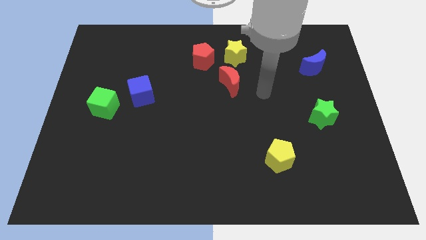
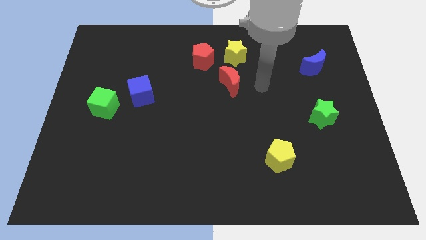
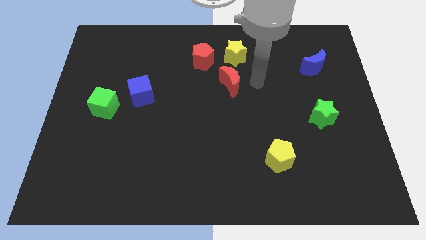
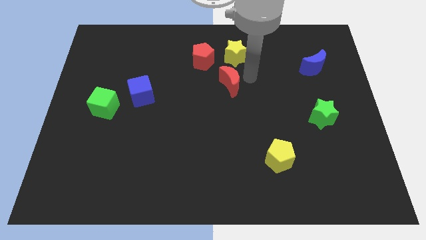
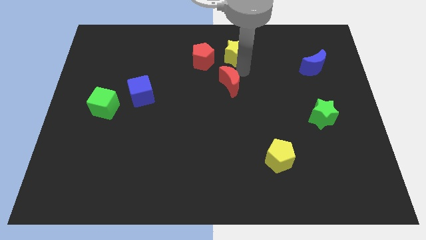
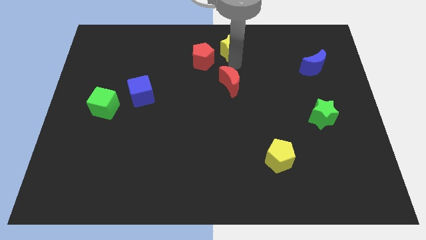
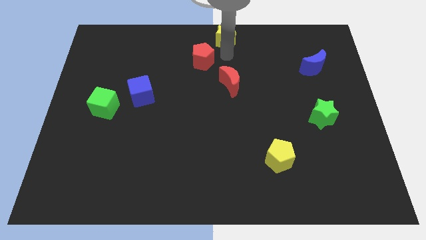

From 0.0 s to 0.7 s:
separate the red pentagon from the yellow star

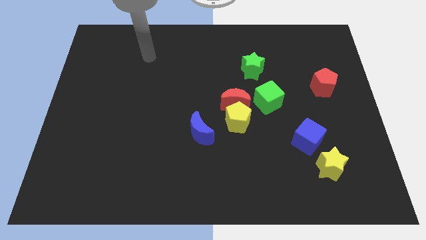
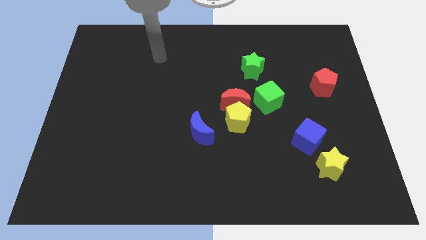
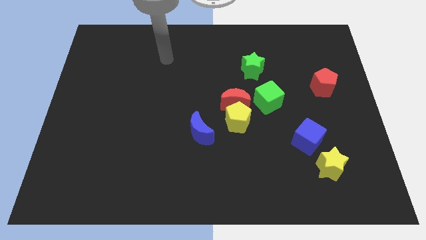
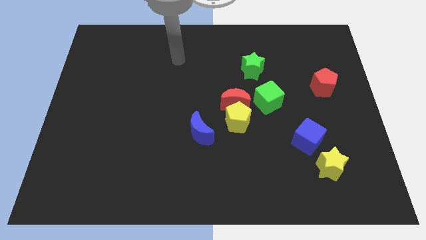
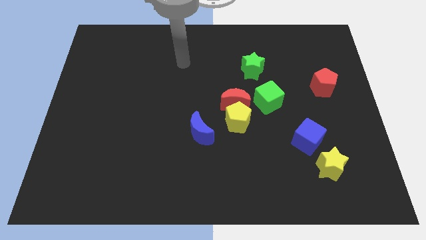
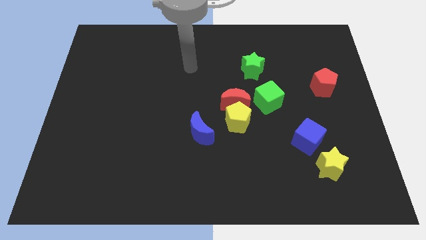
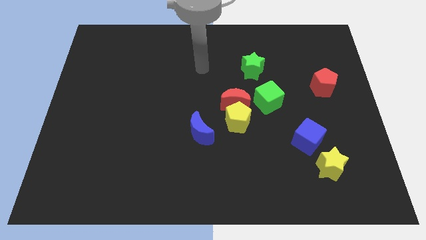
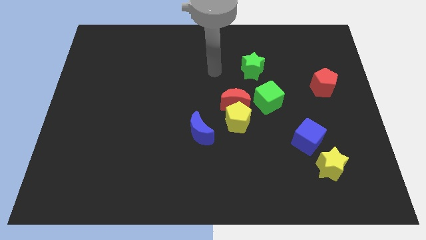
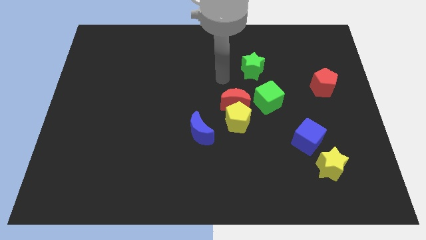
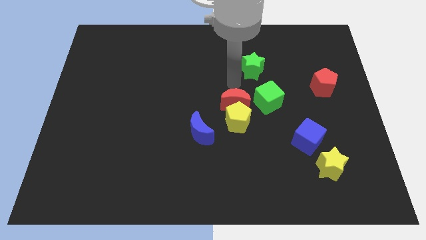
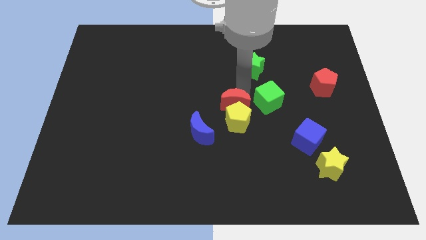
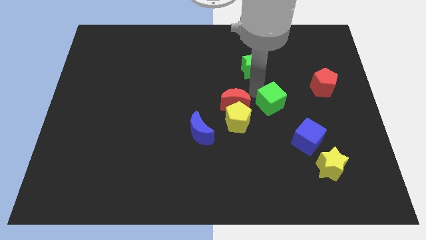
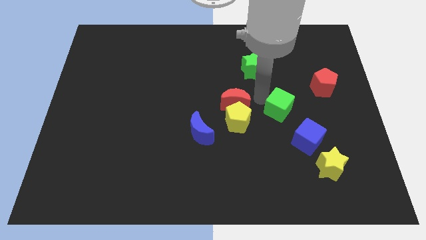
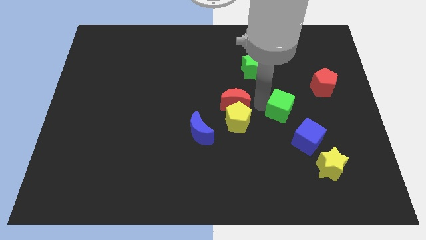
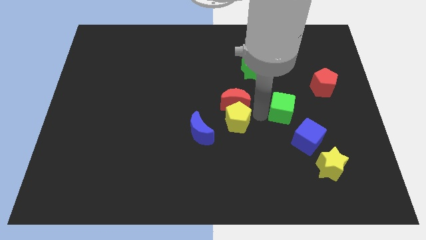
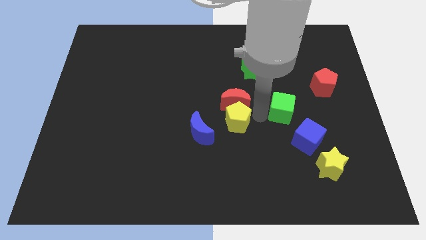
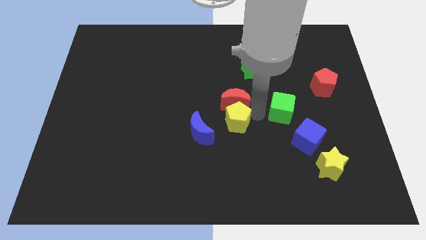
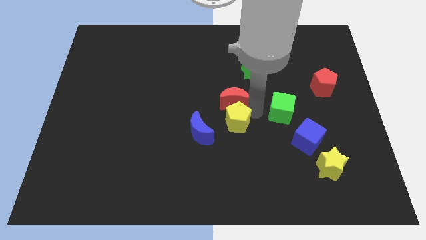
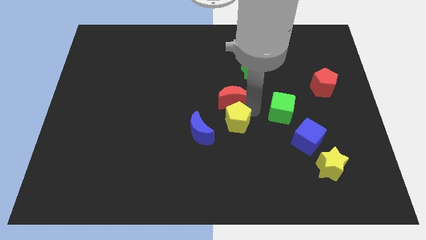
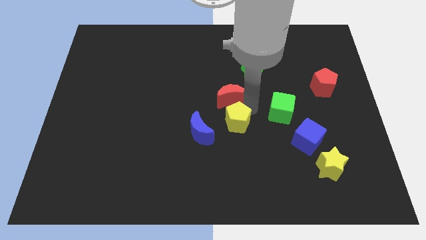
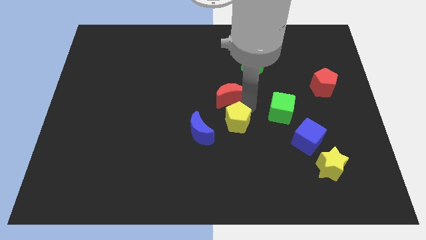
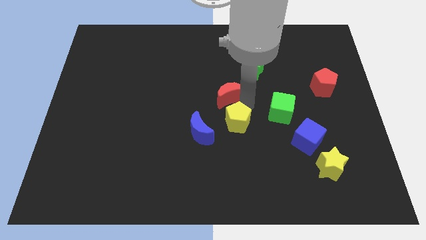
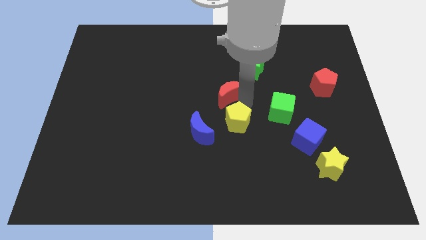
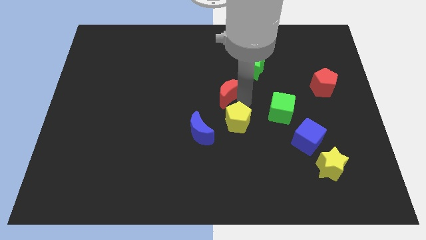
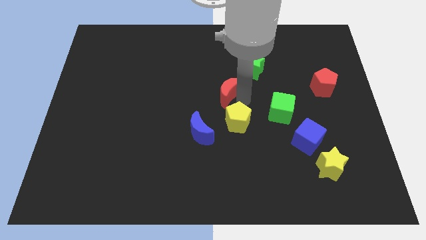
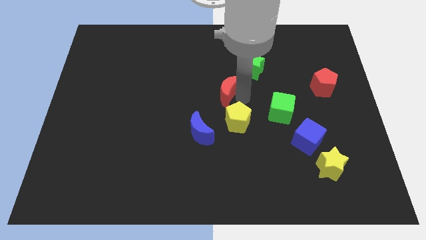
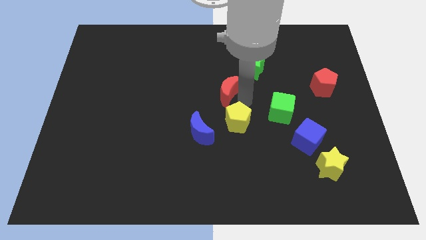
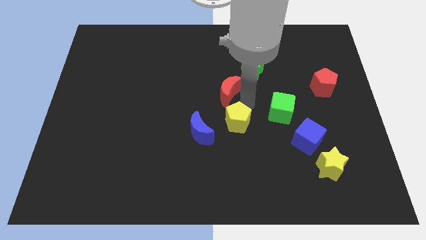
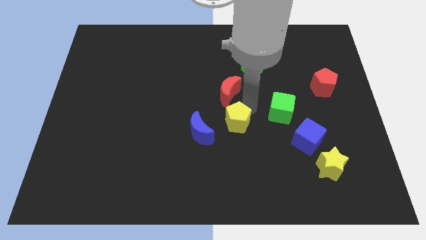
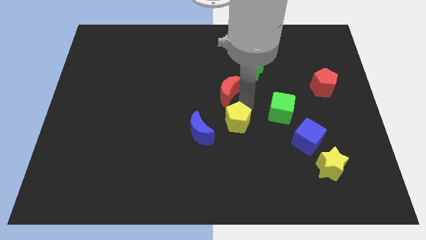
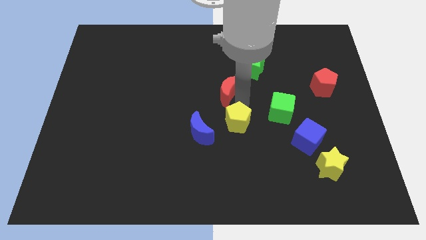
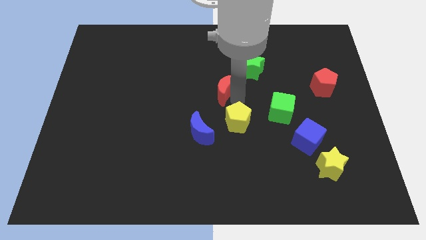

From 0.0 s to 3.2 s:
pull the red moon apart from the yellow pentagon and green cube

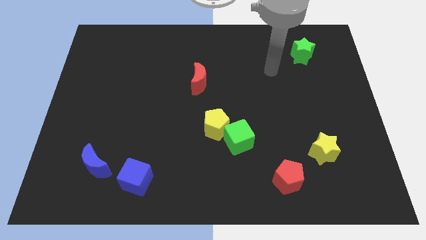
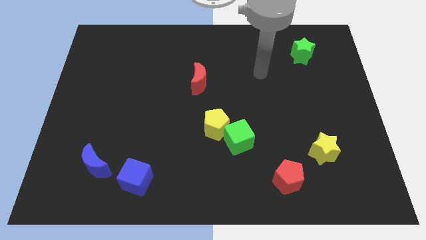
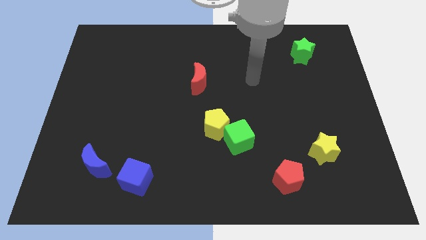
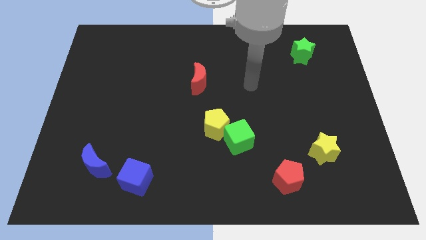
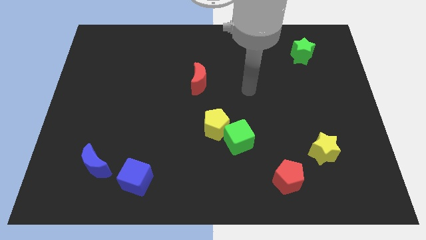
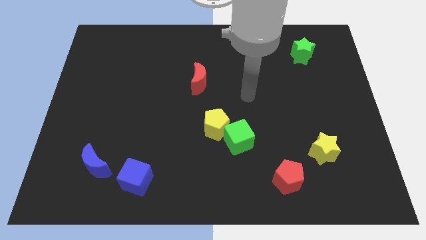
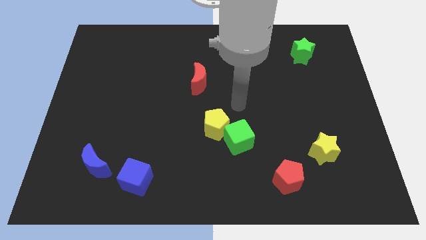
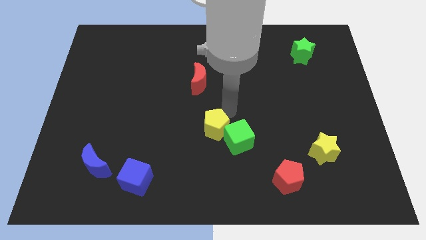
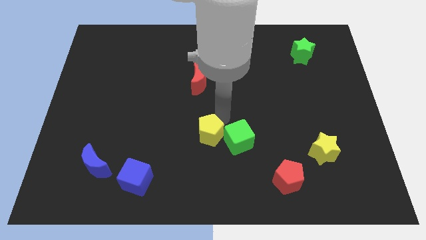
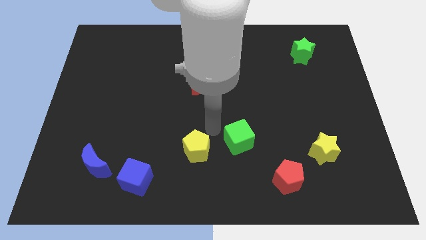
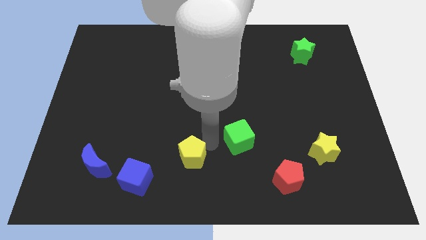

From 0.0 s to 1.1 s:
move the green cube away from the yellow pentagon

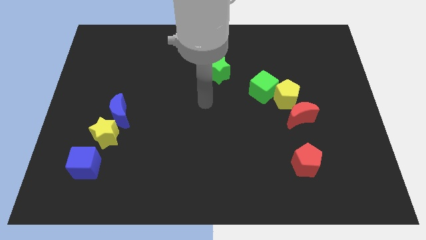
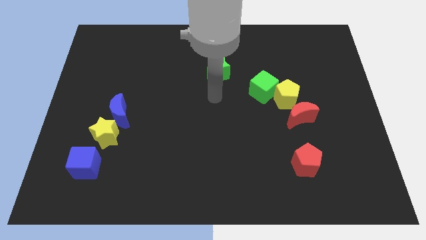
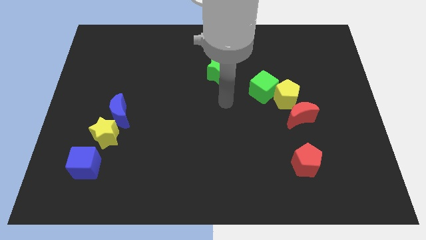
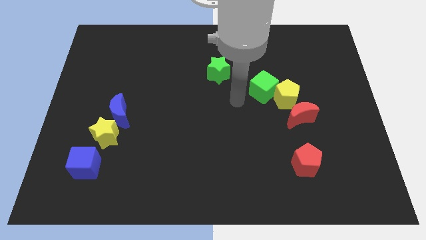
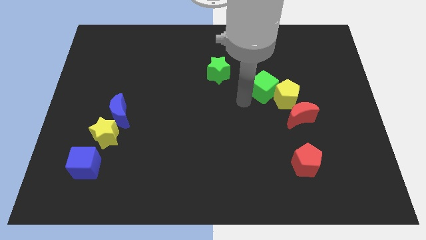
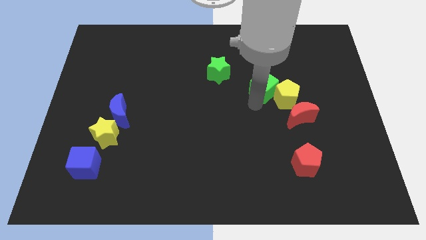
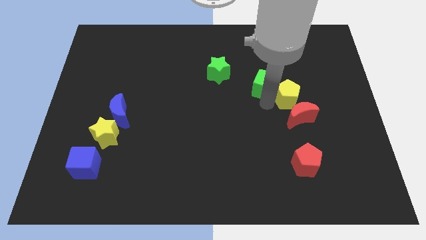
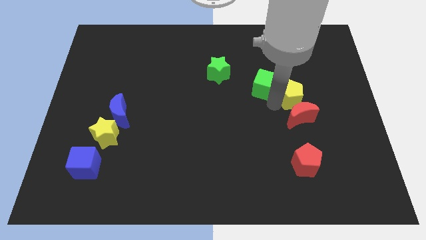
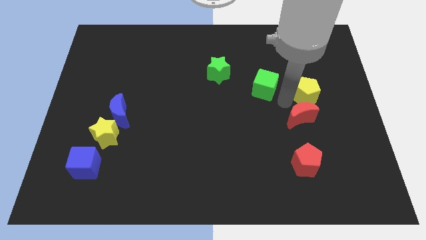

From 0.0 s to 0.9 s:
pull the green cube apart from the yellow pentagon

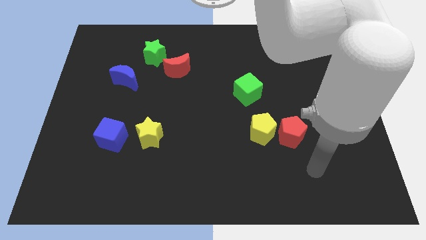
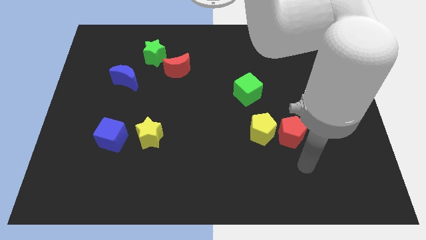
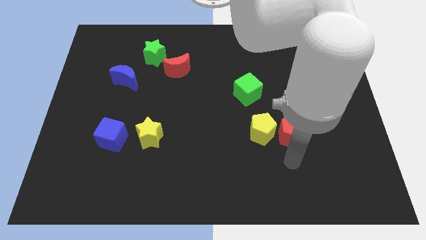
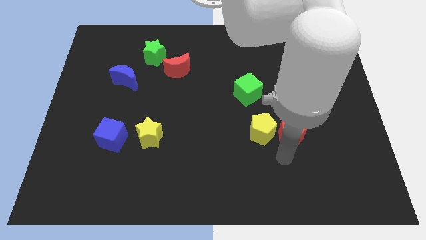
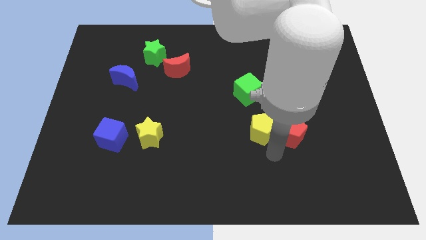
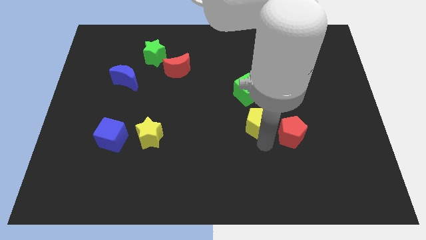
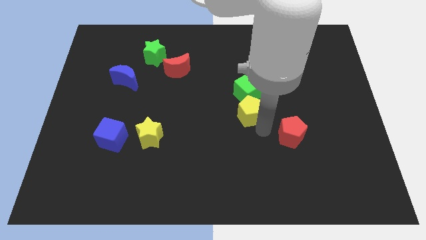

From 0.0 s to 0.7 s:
move the red pentagon away from the yellow pentagon

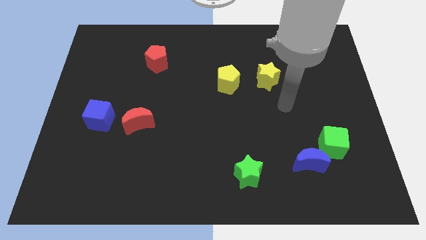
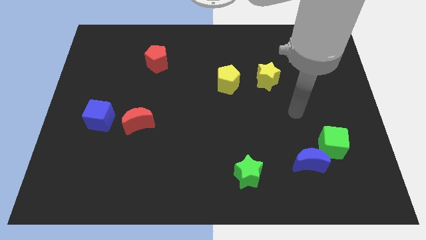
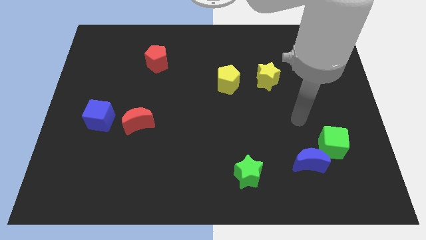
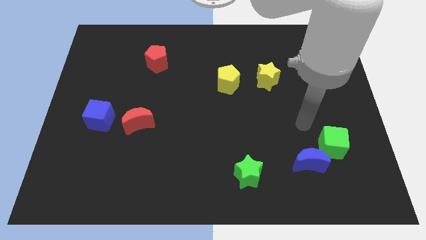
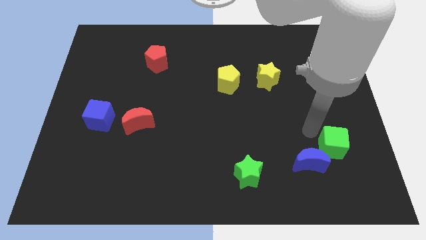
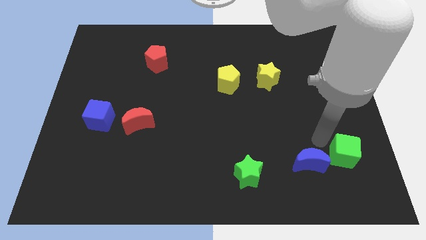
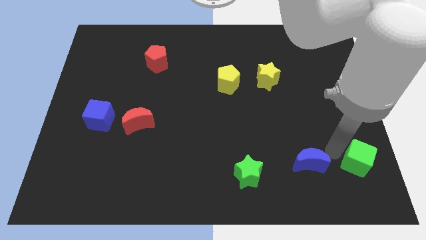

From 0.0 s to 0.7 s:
move the blue moon away from the green cube

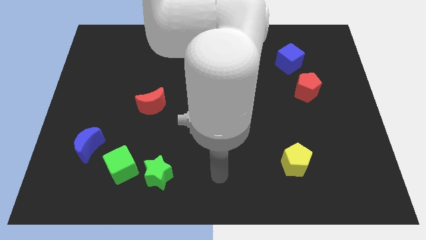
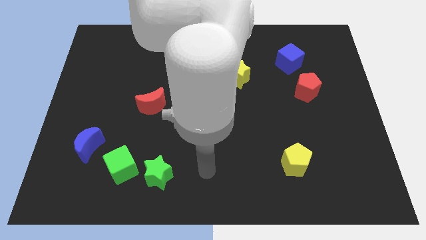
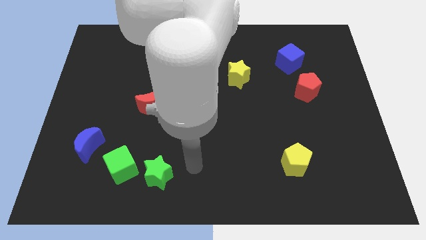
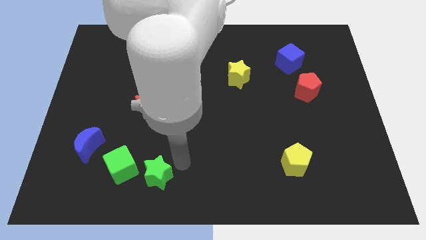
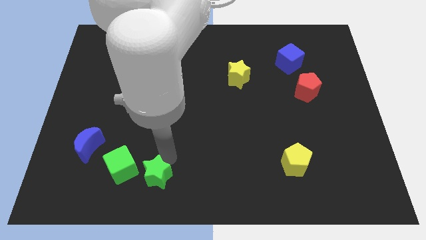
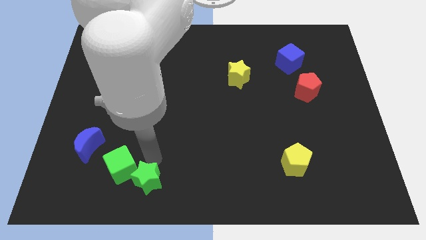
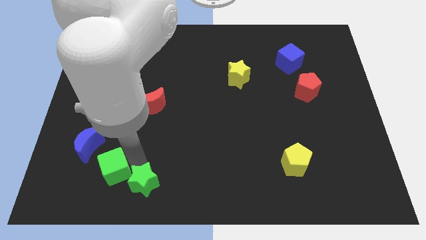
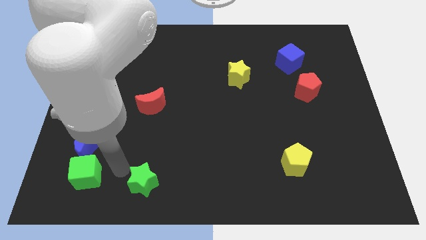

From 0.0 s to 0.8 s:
separate the green star from the green cube

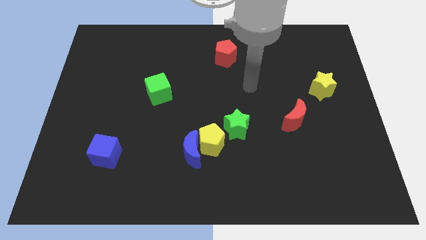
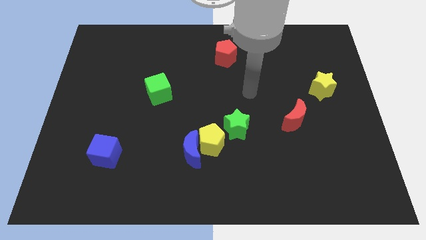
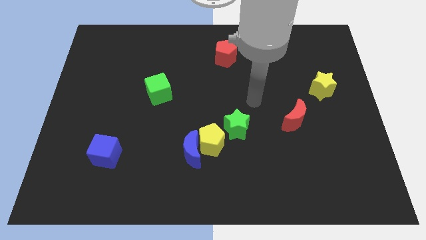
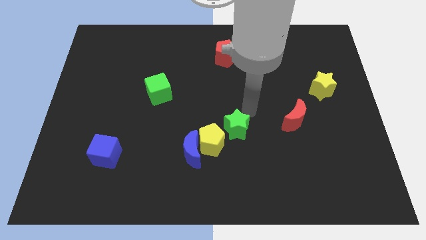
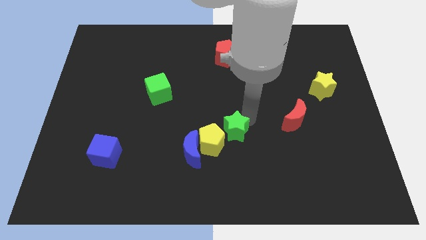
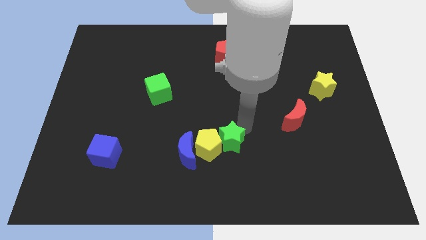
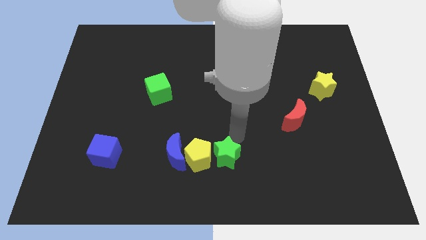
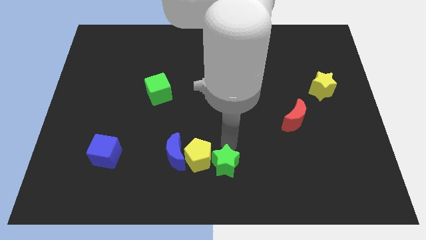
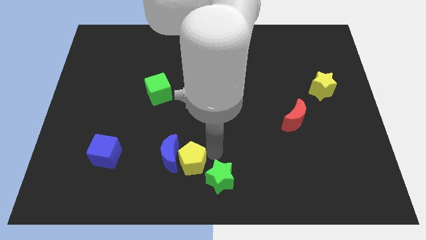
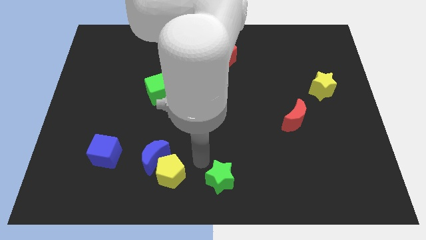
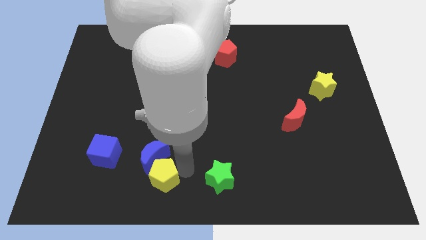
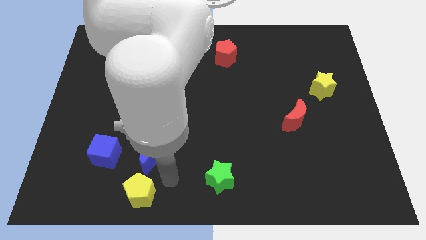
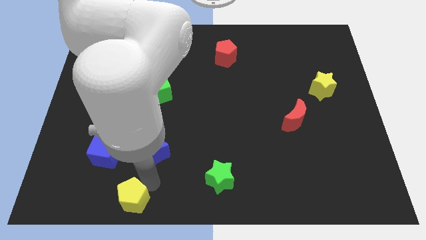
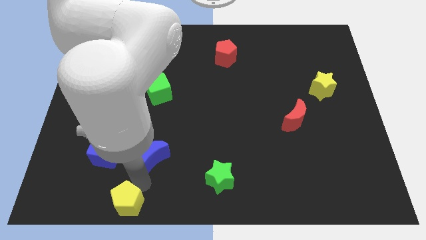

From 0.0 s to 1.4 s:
separate the blue moon from the yellow pentagon
